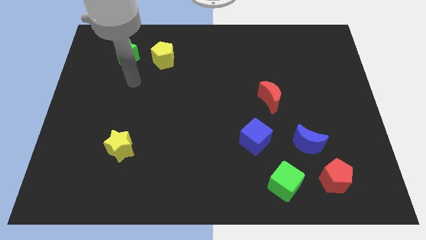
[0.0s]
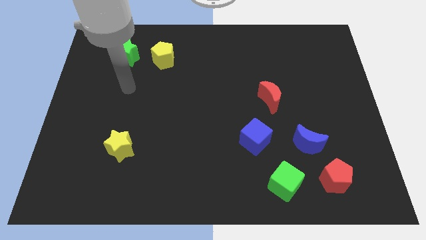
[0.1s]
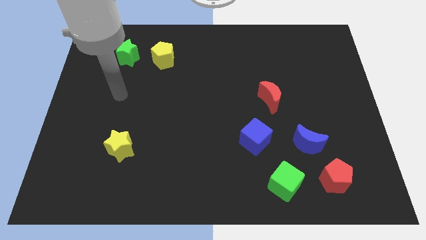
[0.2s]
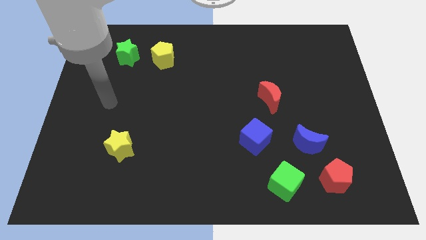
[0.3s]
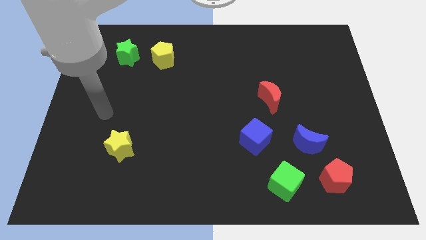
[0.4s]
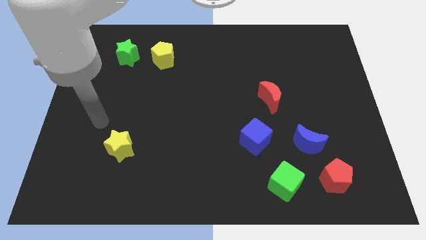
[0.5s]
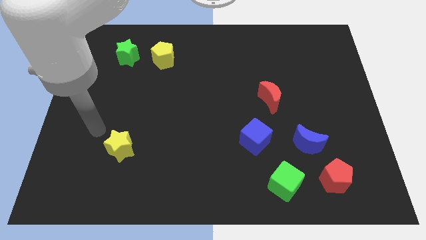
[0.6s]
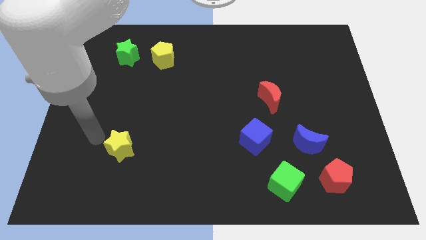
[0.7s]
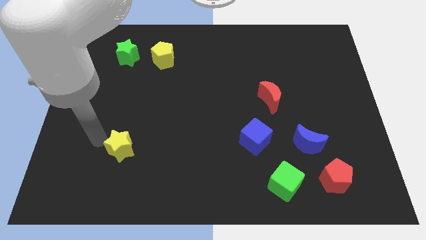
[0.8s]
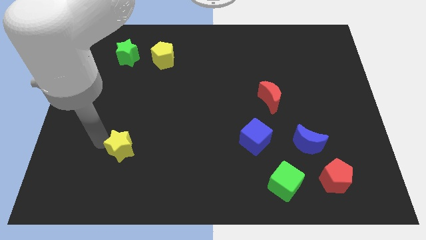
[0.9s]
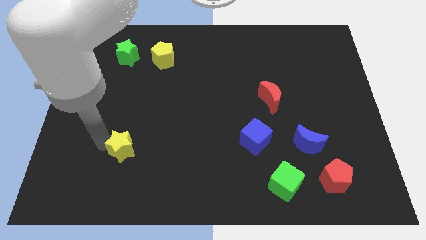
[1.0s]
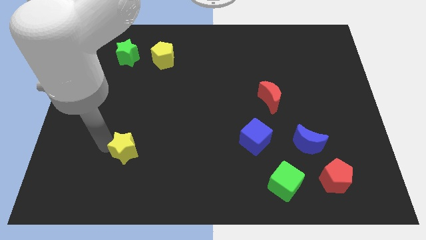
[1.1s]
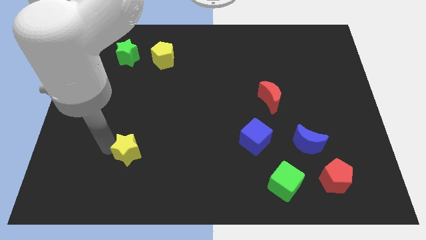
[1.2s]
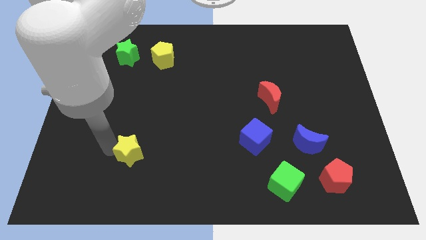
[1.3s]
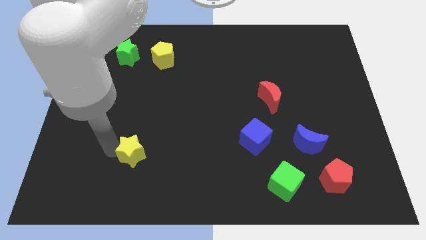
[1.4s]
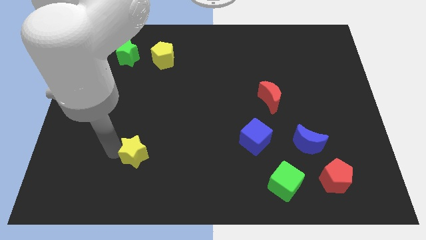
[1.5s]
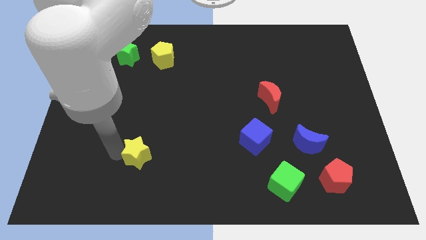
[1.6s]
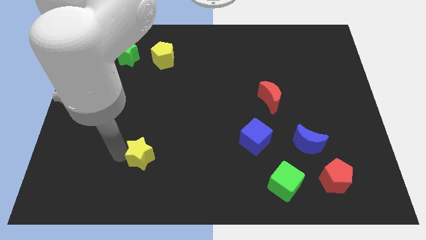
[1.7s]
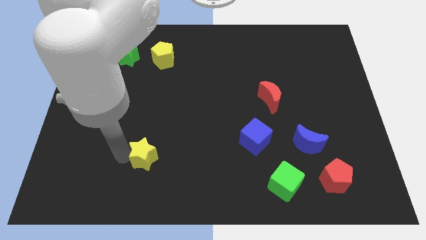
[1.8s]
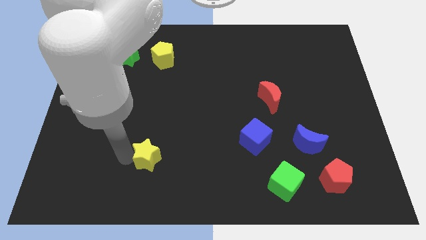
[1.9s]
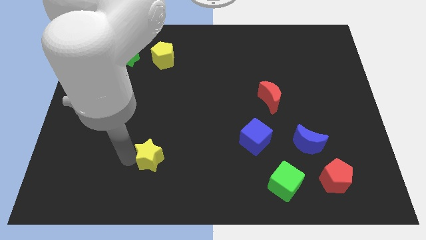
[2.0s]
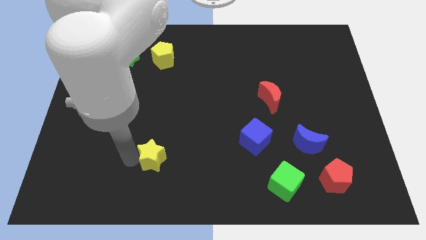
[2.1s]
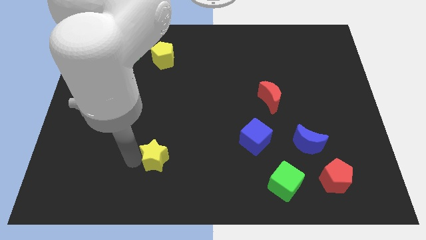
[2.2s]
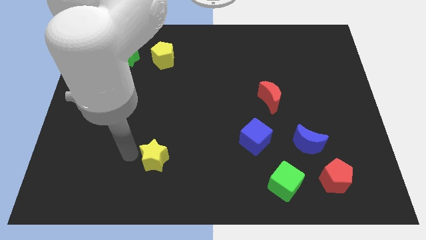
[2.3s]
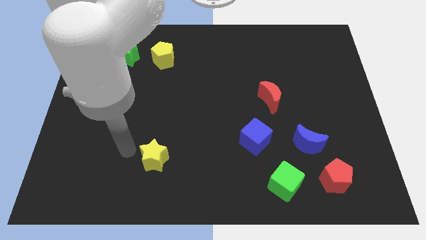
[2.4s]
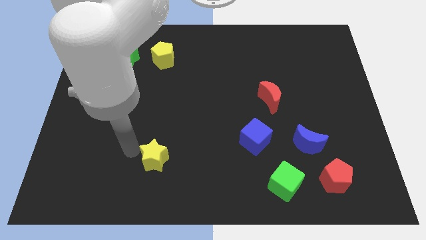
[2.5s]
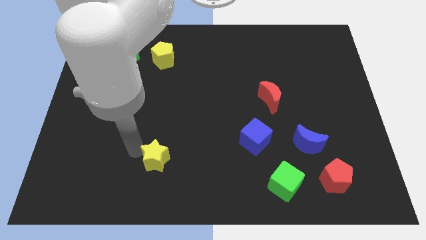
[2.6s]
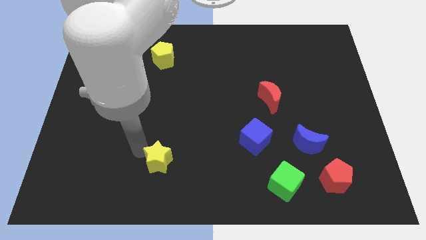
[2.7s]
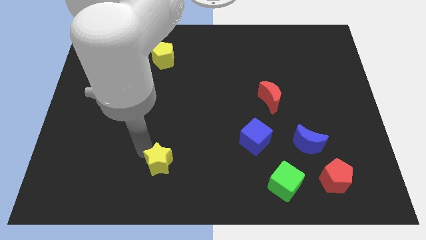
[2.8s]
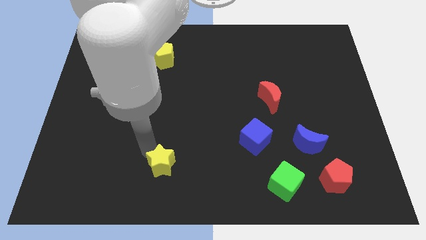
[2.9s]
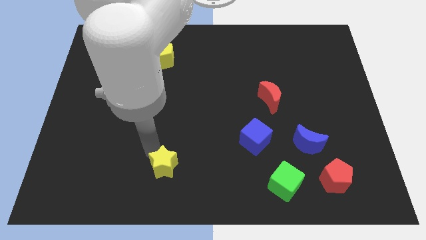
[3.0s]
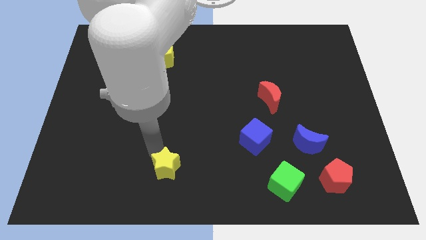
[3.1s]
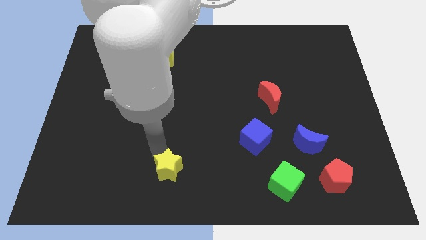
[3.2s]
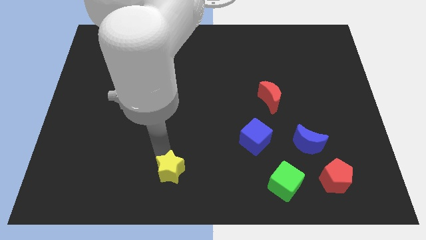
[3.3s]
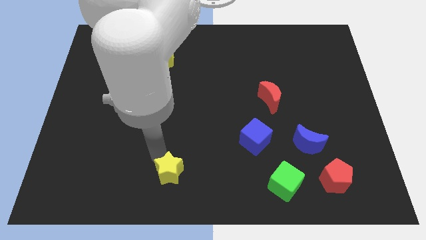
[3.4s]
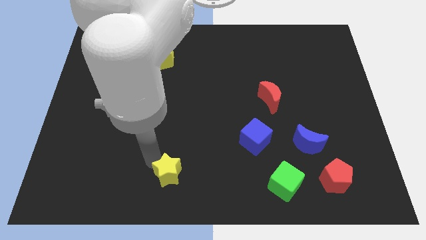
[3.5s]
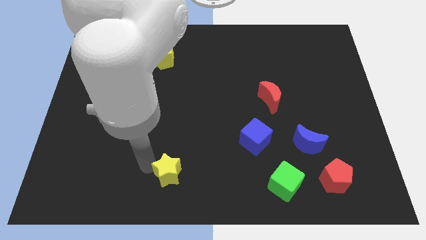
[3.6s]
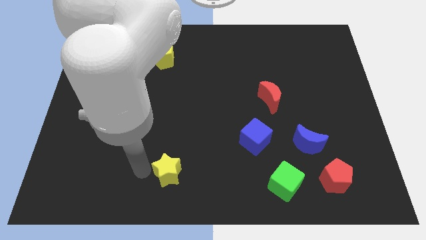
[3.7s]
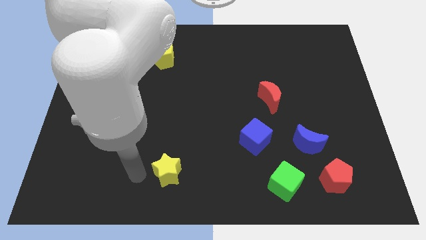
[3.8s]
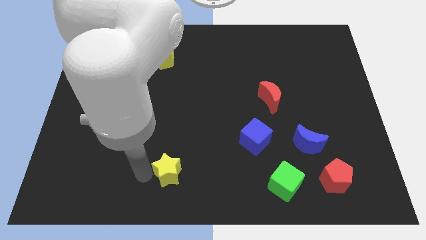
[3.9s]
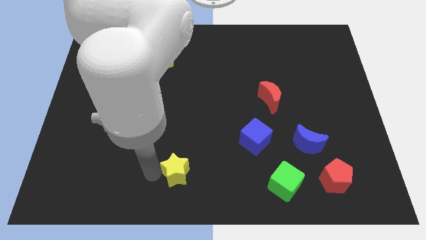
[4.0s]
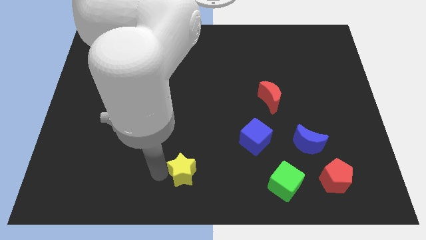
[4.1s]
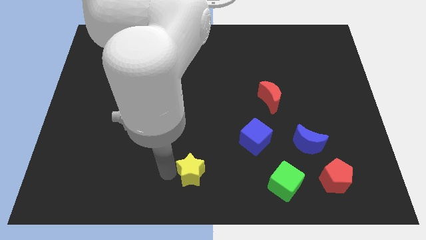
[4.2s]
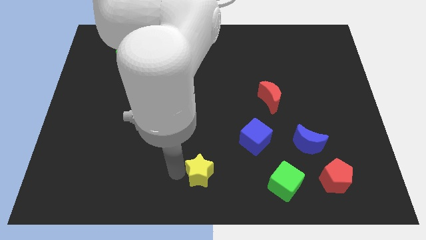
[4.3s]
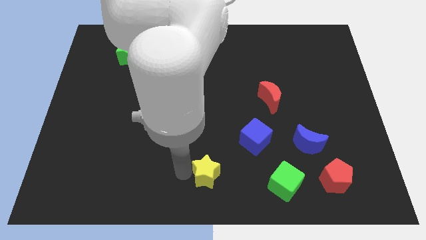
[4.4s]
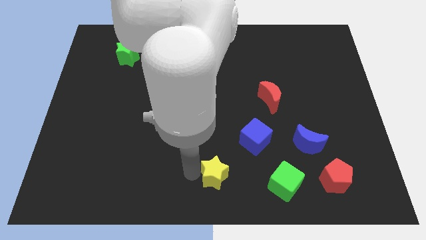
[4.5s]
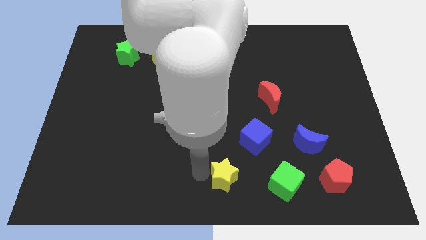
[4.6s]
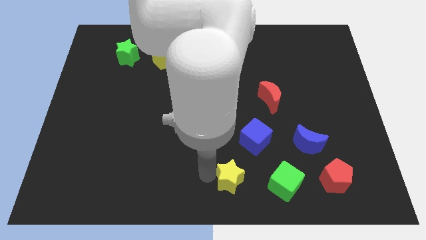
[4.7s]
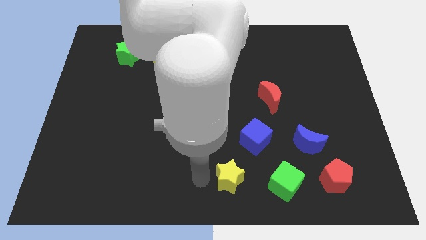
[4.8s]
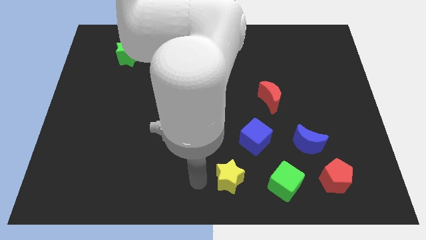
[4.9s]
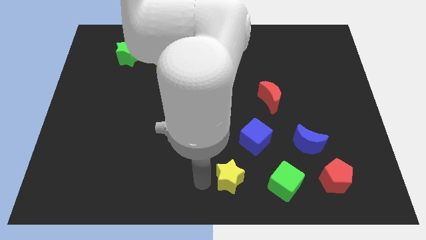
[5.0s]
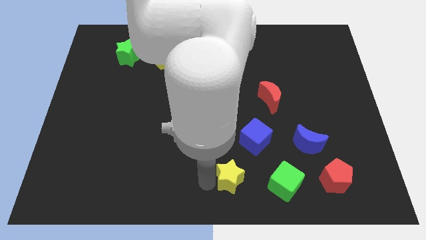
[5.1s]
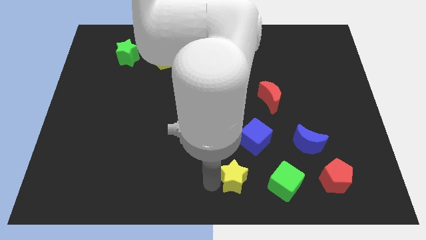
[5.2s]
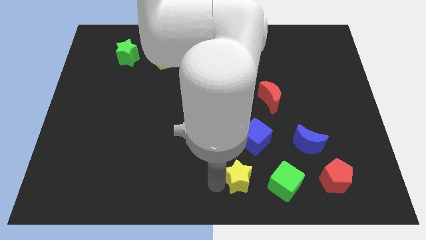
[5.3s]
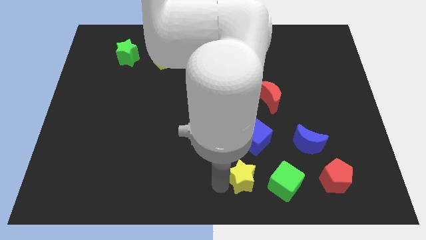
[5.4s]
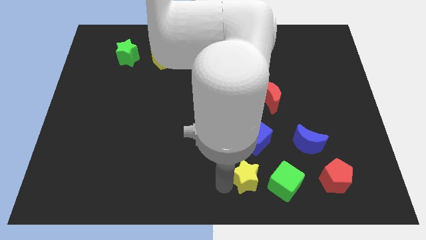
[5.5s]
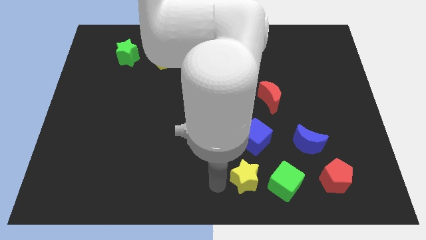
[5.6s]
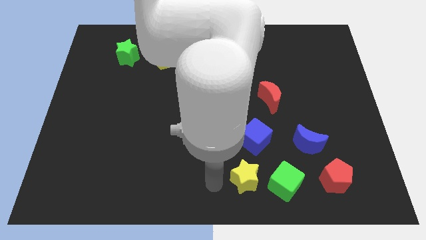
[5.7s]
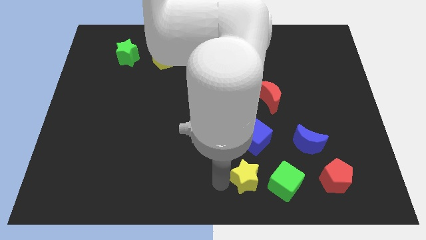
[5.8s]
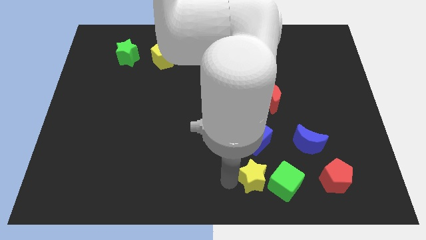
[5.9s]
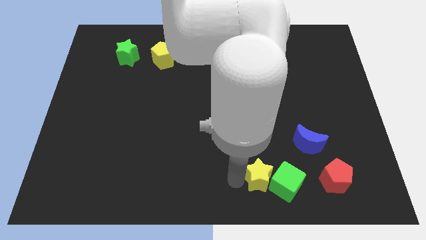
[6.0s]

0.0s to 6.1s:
put the yellow star to the green cube

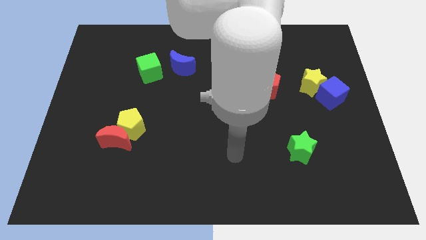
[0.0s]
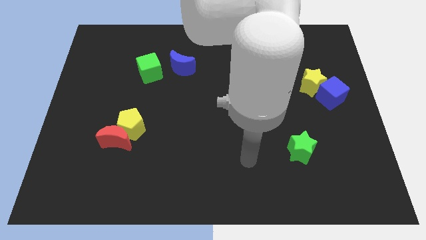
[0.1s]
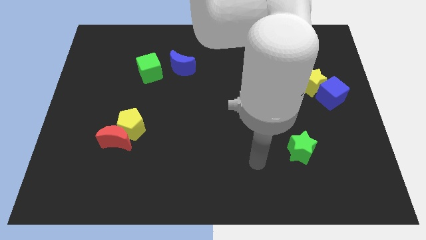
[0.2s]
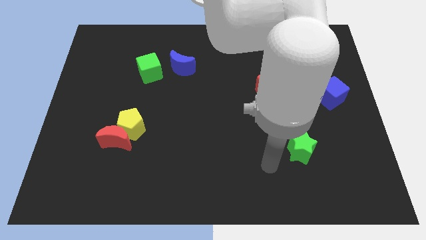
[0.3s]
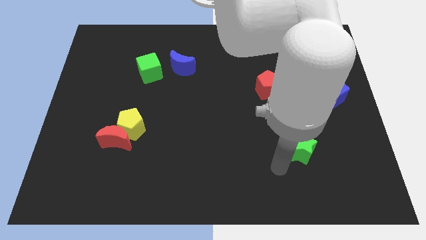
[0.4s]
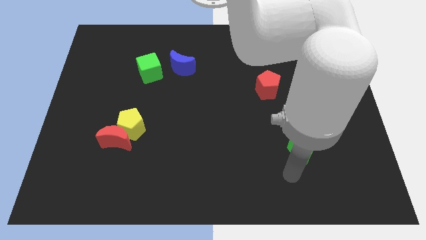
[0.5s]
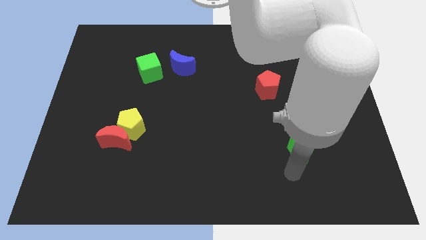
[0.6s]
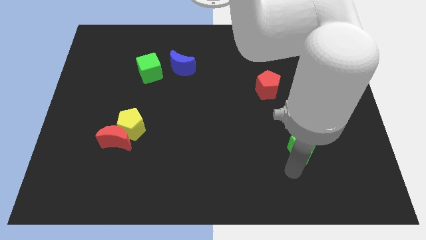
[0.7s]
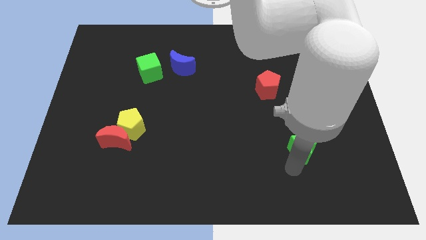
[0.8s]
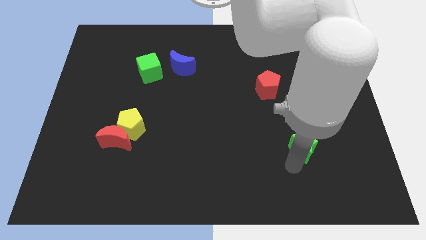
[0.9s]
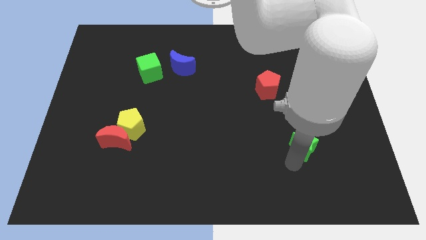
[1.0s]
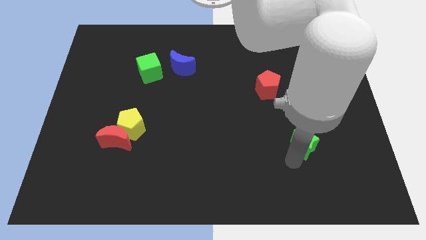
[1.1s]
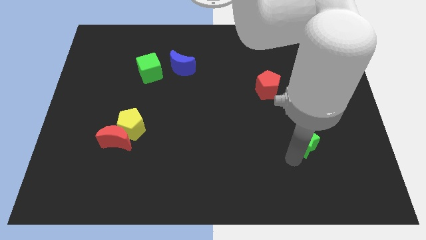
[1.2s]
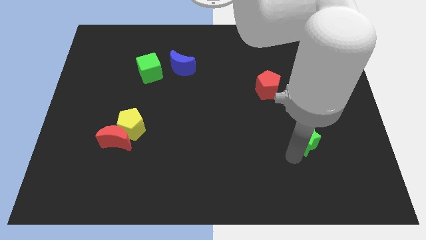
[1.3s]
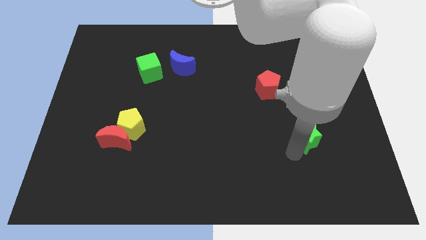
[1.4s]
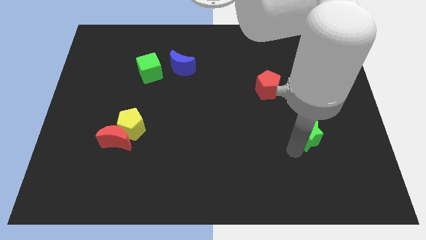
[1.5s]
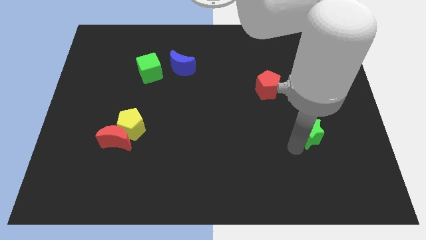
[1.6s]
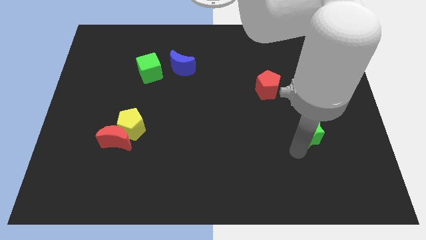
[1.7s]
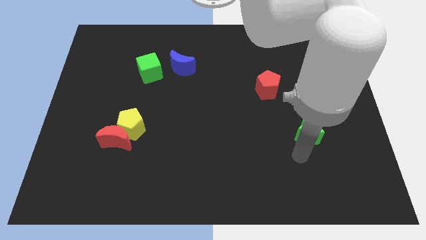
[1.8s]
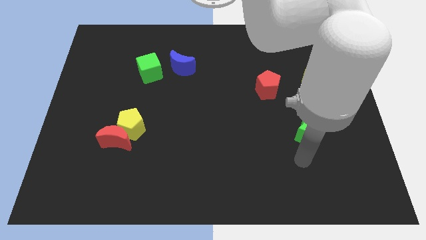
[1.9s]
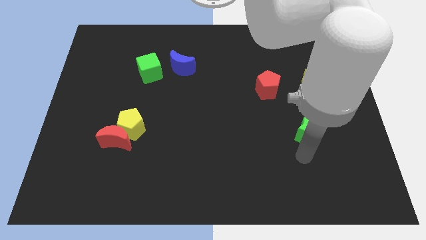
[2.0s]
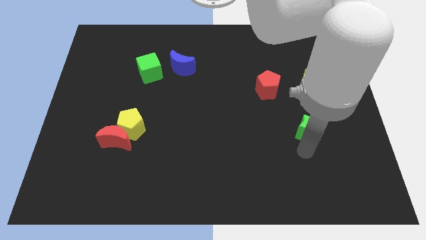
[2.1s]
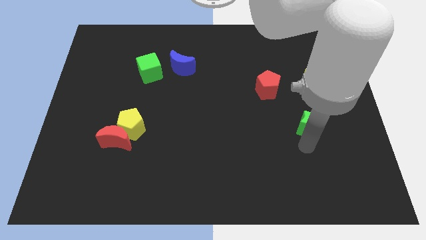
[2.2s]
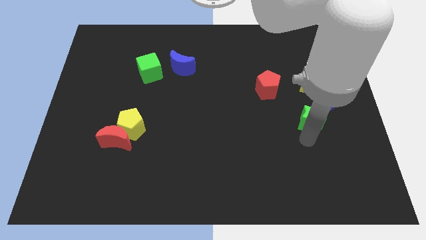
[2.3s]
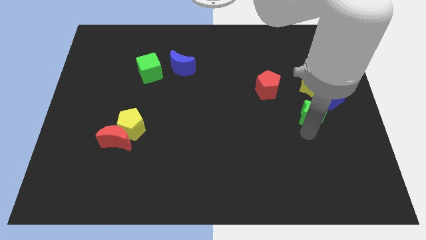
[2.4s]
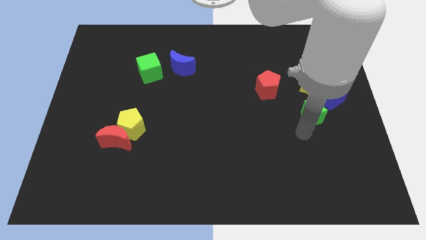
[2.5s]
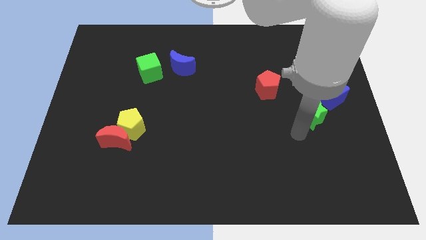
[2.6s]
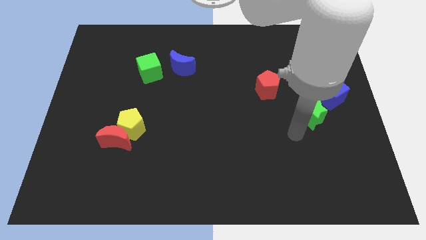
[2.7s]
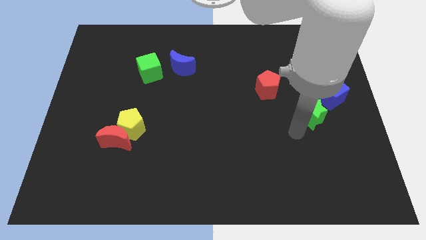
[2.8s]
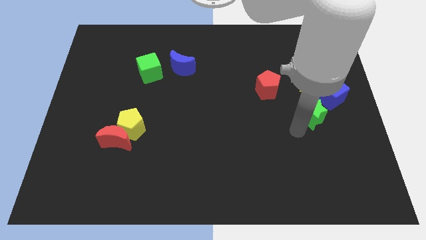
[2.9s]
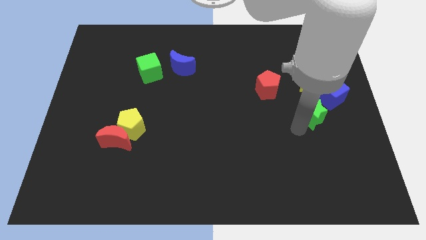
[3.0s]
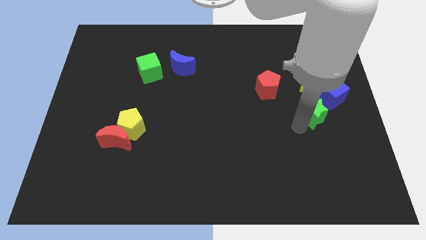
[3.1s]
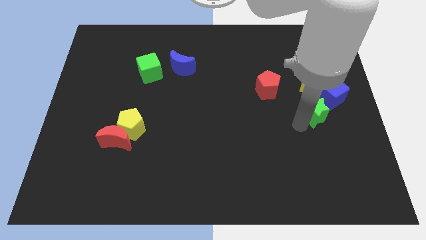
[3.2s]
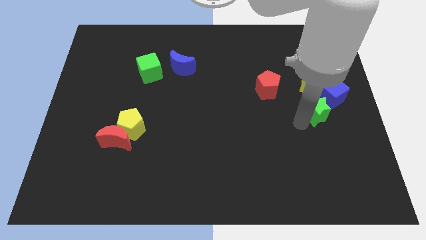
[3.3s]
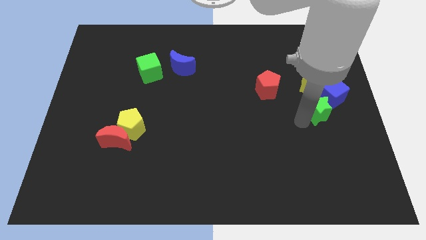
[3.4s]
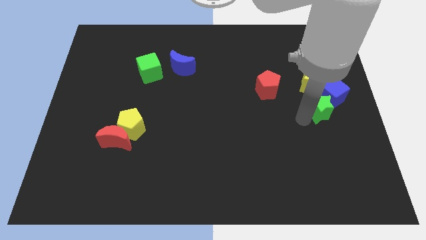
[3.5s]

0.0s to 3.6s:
put the green star towards the blue cube
